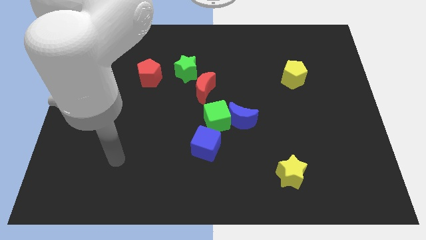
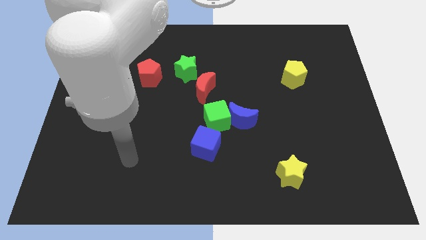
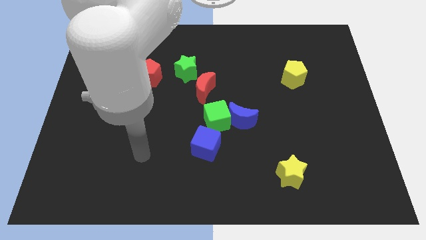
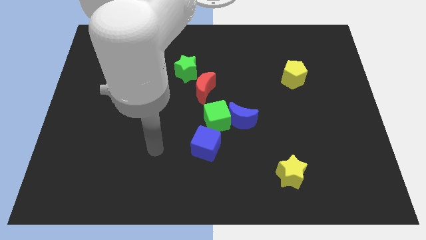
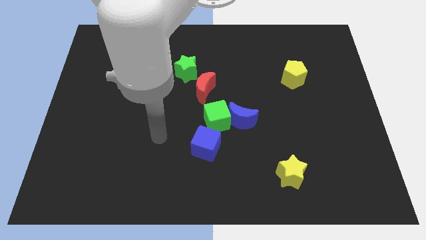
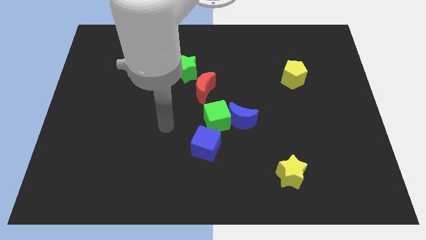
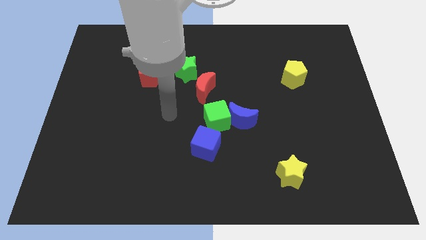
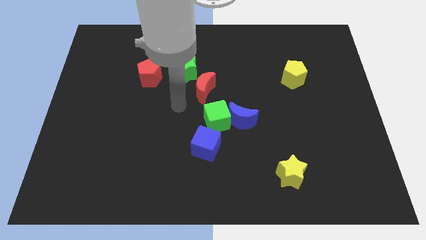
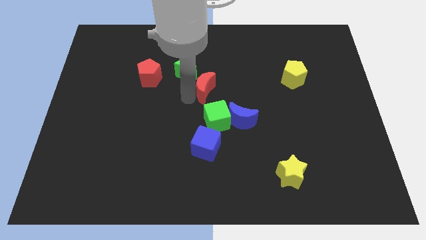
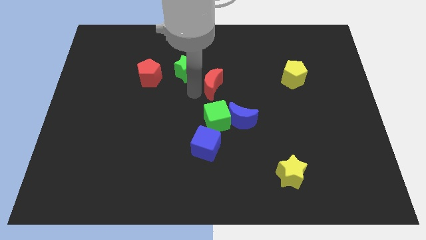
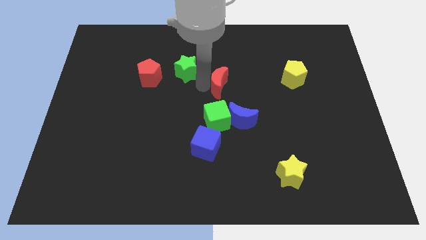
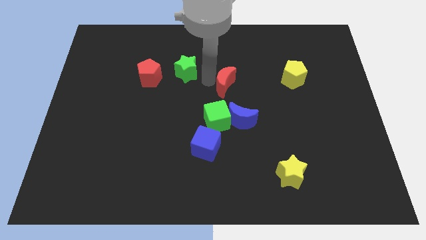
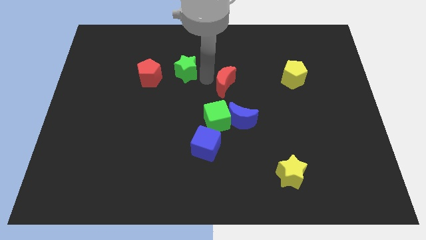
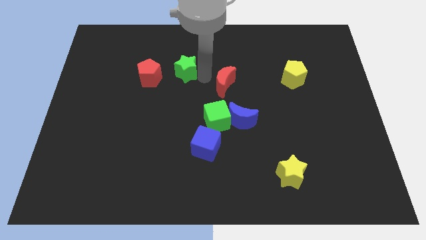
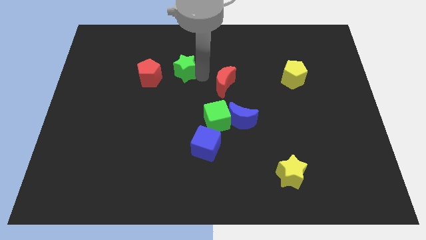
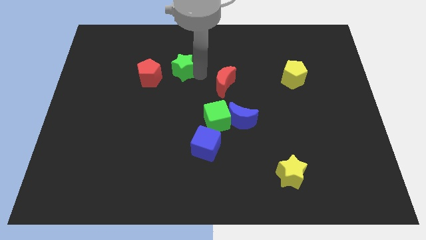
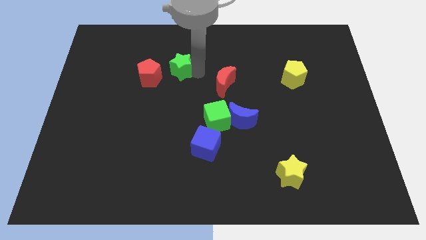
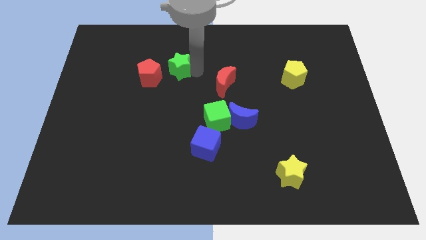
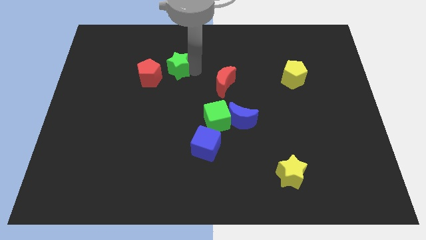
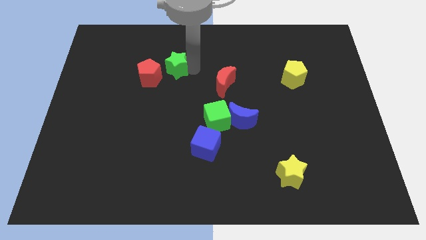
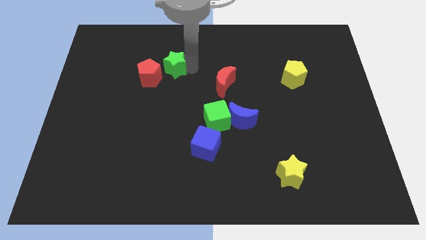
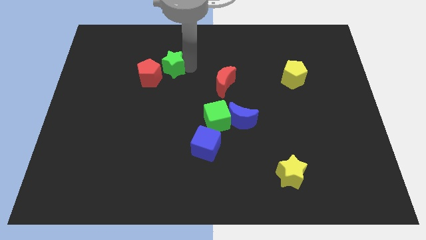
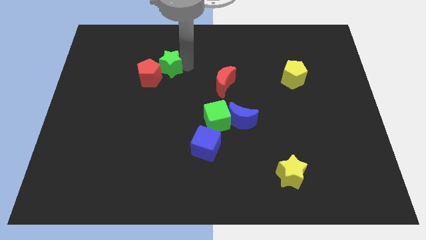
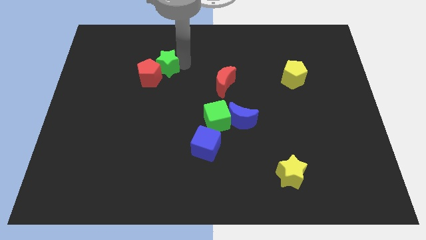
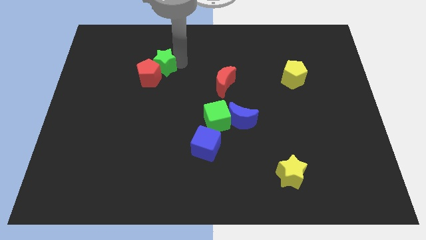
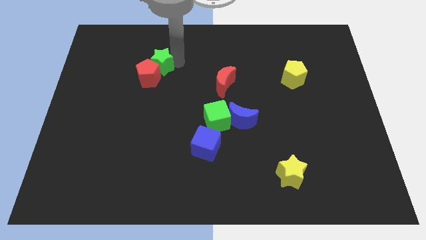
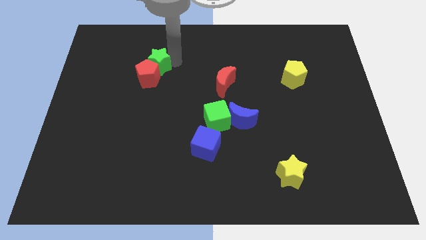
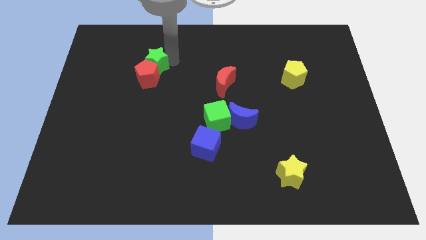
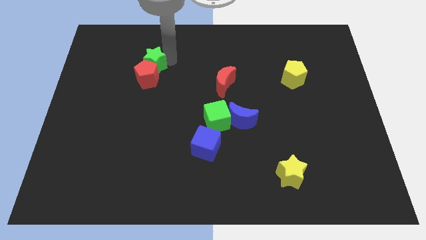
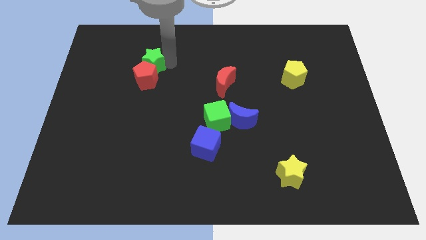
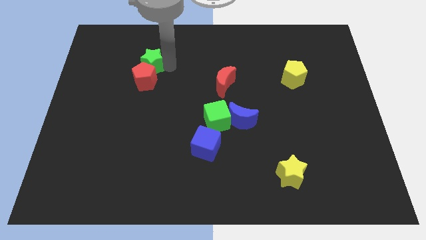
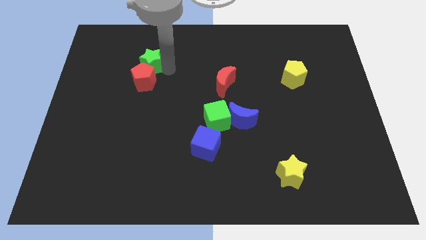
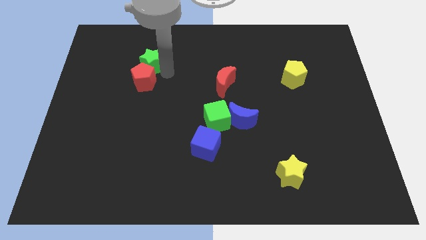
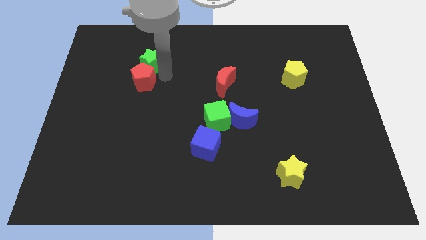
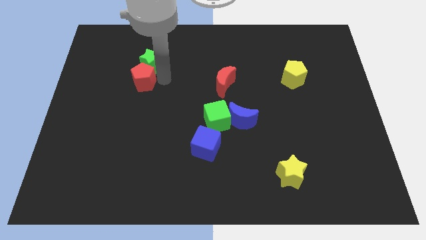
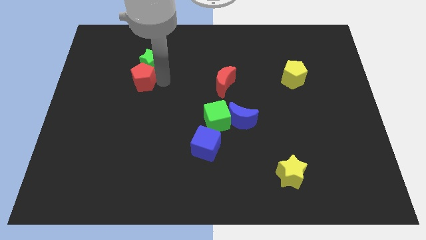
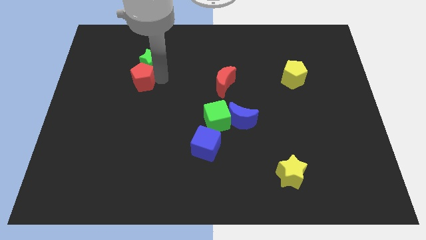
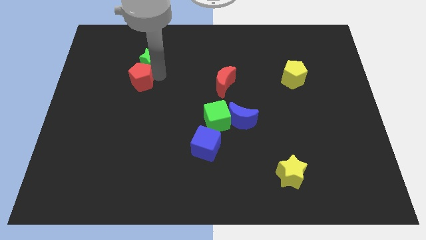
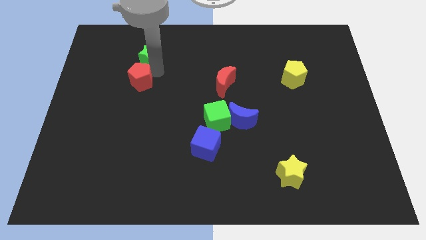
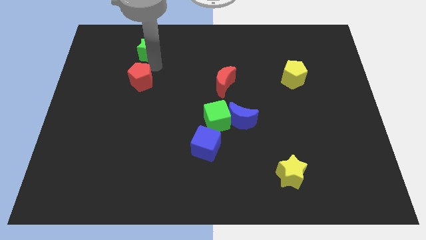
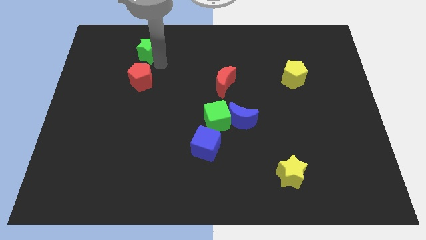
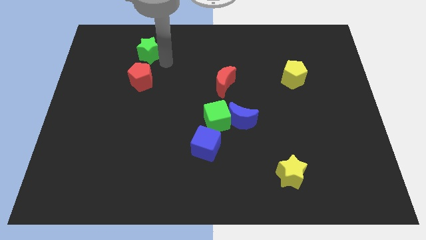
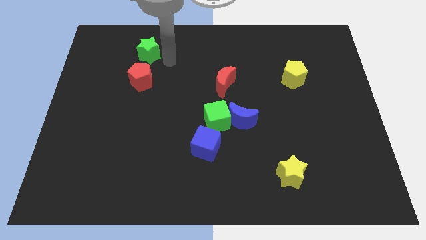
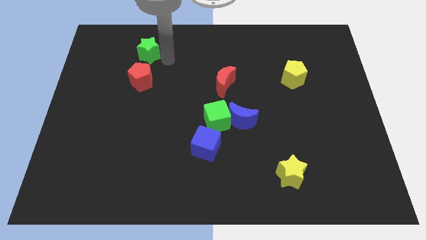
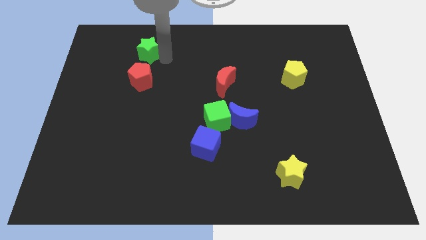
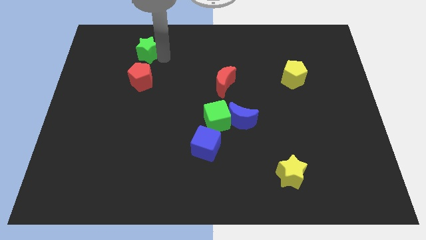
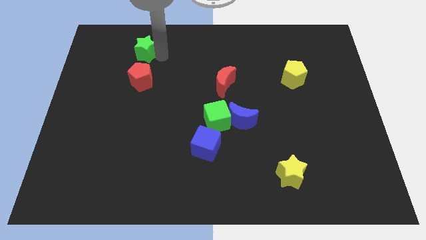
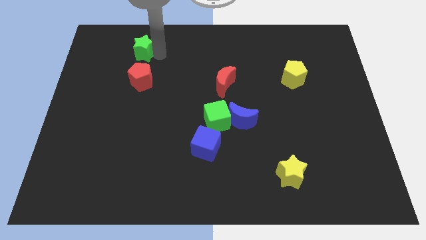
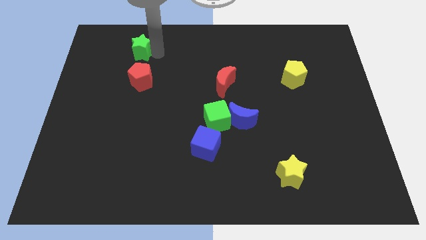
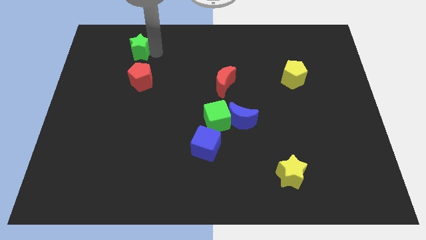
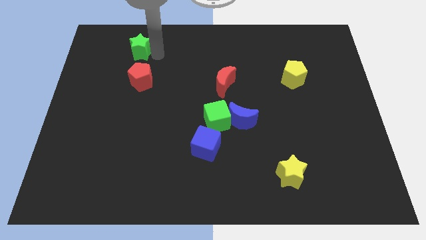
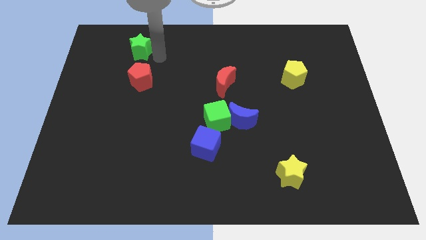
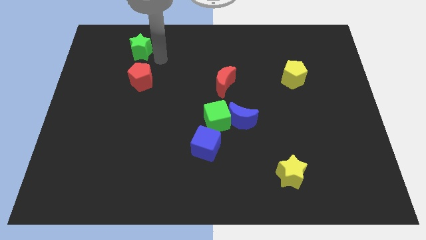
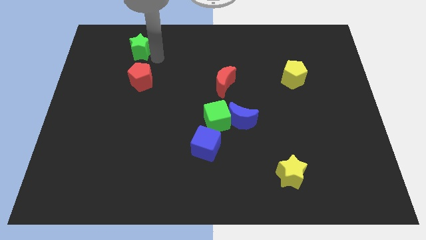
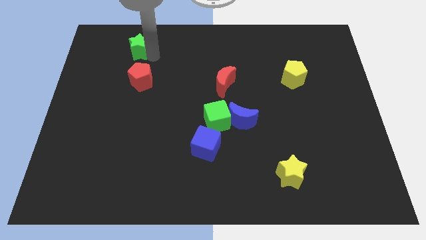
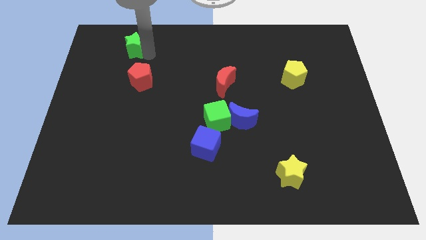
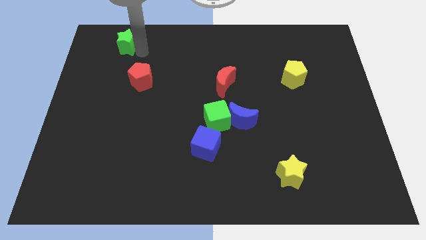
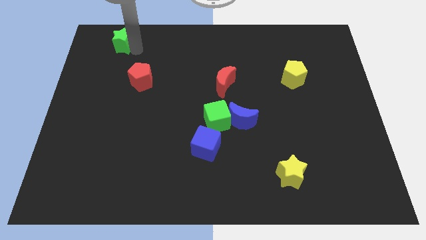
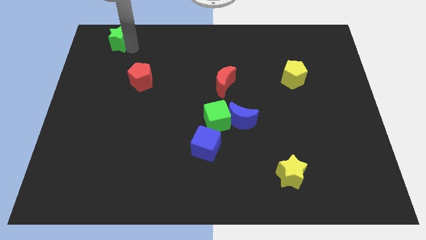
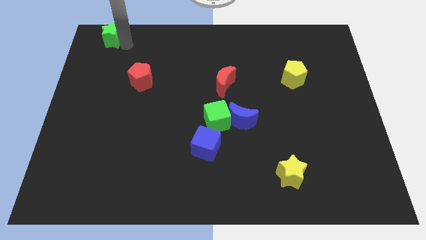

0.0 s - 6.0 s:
move the green star to the top left
